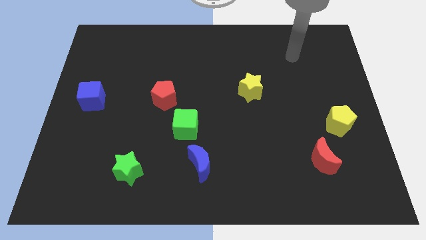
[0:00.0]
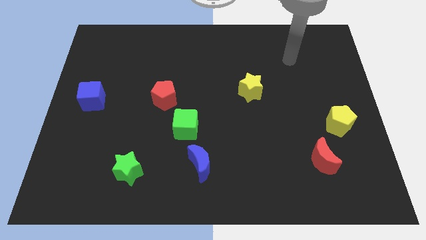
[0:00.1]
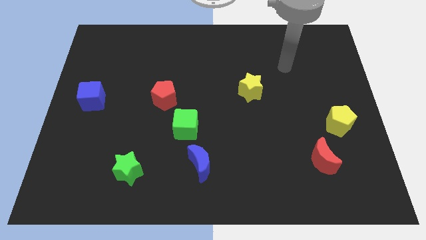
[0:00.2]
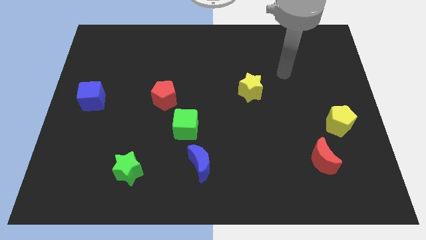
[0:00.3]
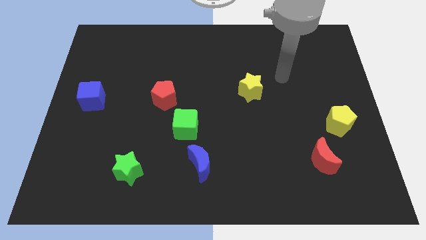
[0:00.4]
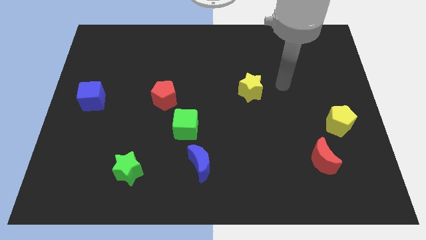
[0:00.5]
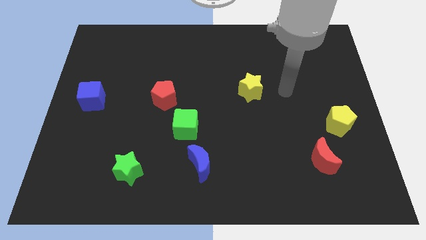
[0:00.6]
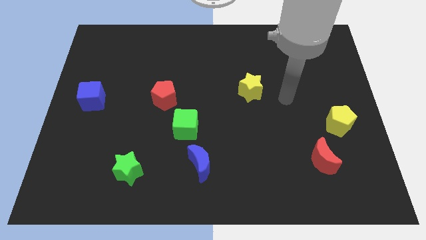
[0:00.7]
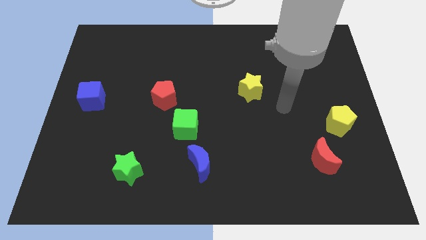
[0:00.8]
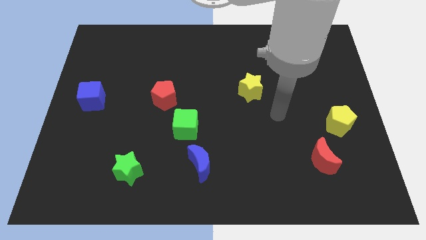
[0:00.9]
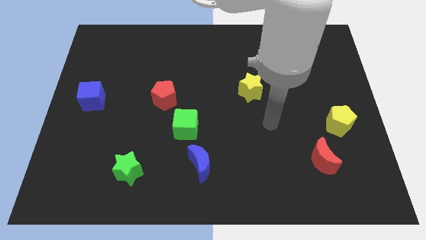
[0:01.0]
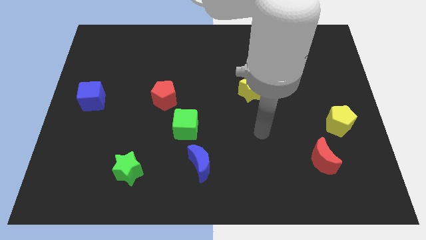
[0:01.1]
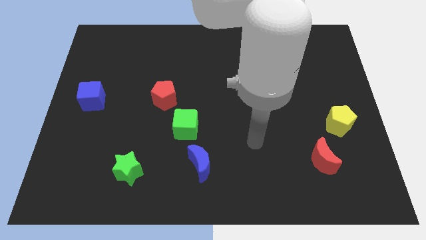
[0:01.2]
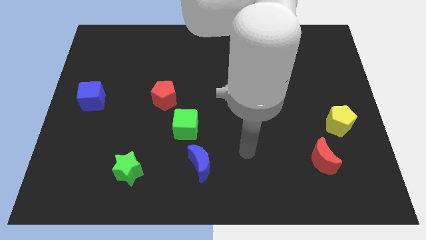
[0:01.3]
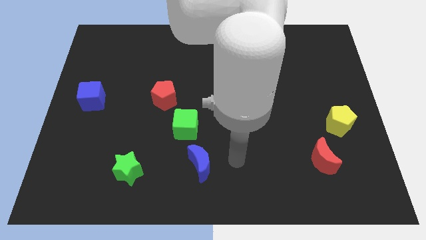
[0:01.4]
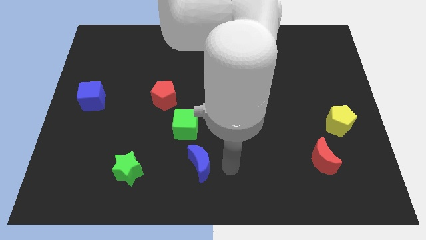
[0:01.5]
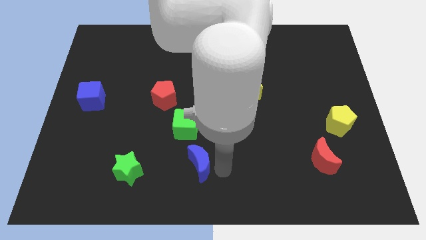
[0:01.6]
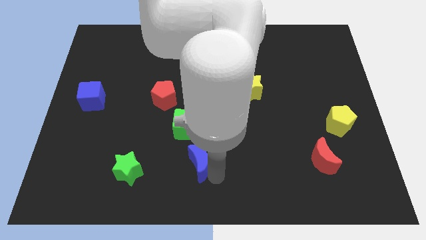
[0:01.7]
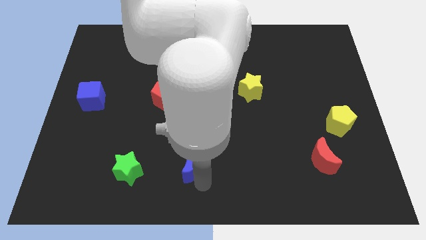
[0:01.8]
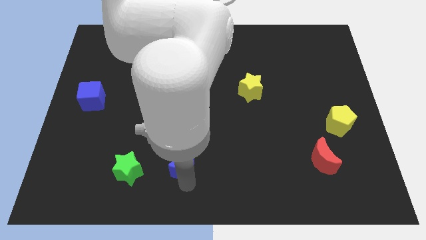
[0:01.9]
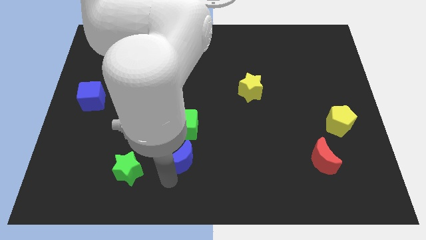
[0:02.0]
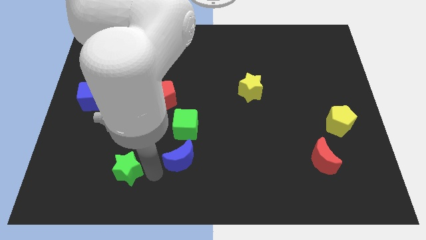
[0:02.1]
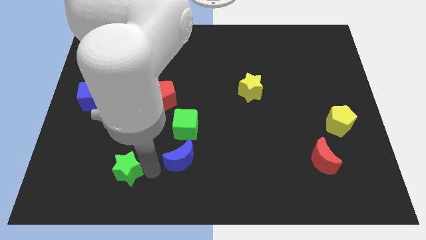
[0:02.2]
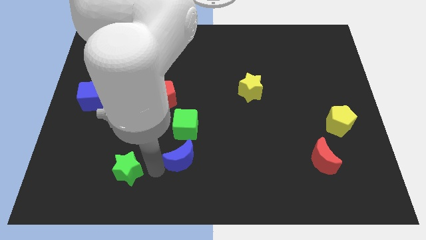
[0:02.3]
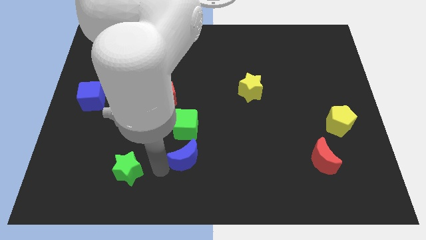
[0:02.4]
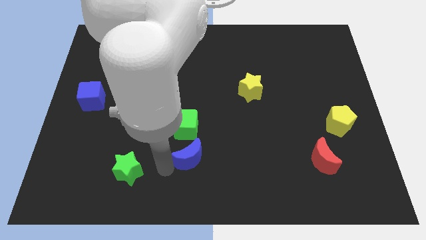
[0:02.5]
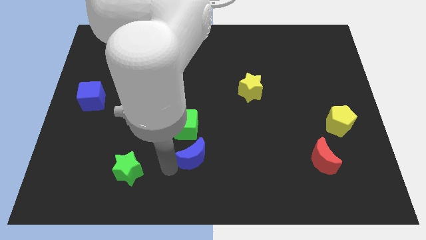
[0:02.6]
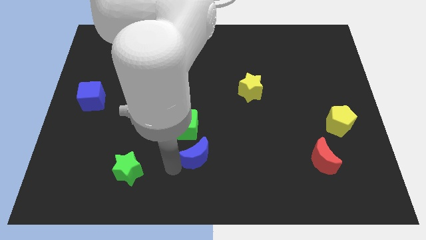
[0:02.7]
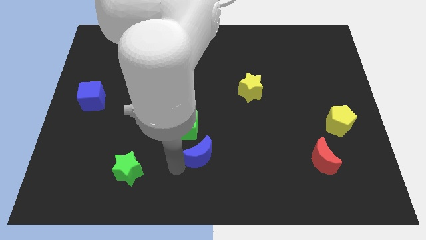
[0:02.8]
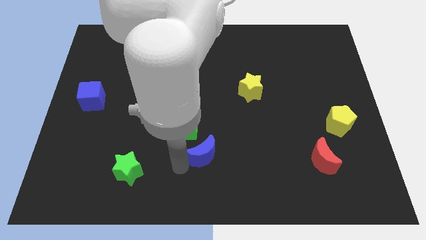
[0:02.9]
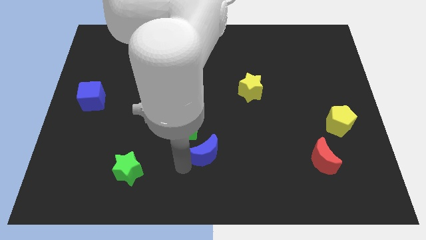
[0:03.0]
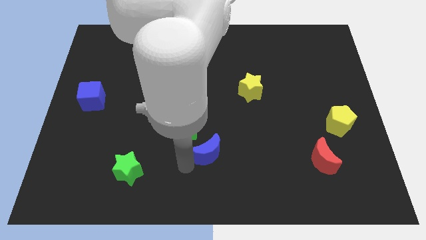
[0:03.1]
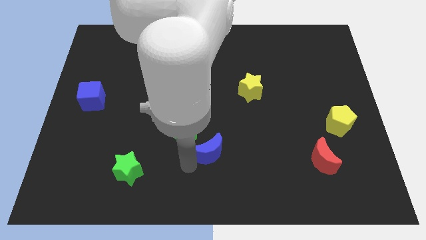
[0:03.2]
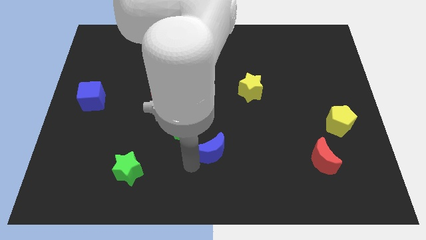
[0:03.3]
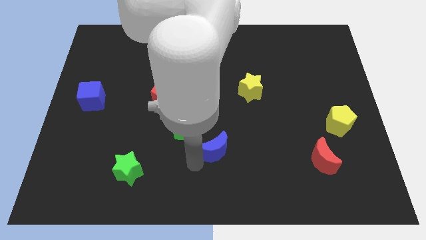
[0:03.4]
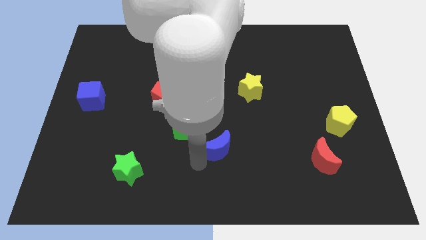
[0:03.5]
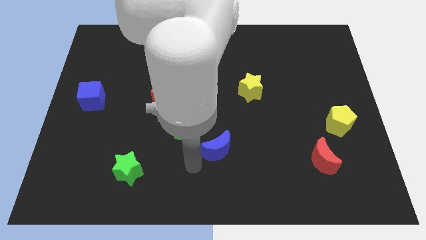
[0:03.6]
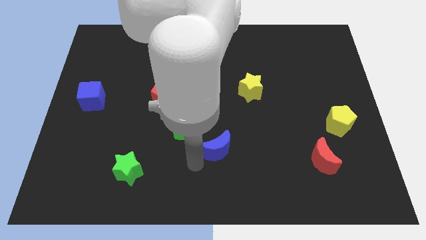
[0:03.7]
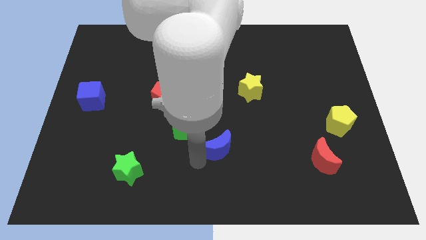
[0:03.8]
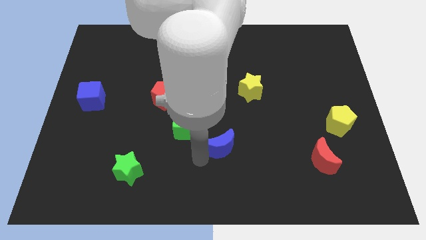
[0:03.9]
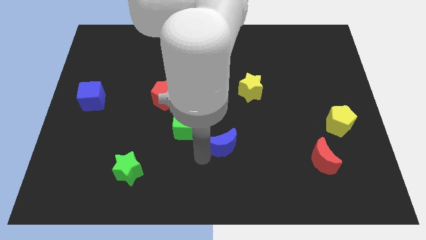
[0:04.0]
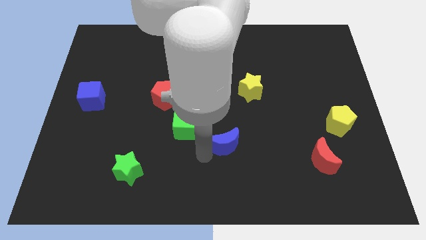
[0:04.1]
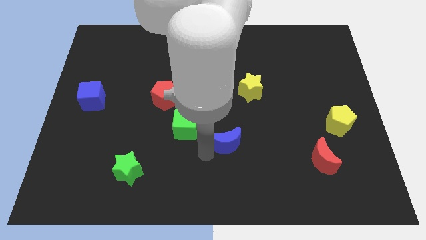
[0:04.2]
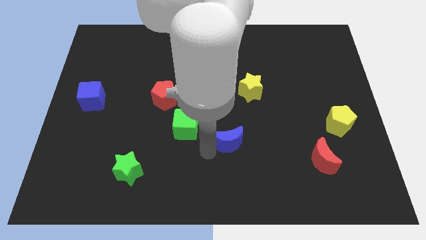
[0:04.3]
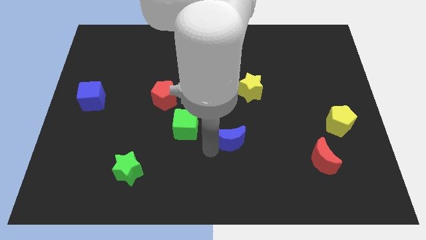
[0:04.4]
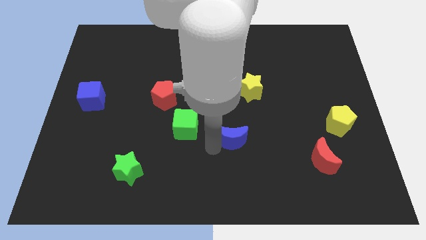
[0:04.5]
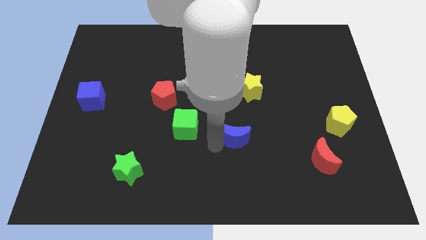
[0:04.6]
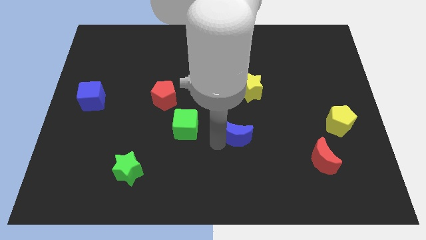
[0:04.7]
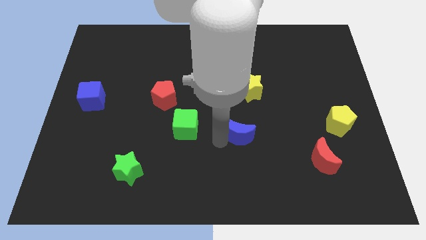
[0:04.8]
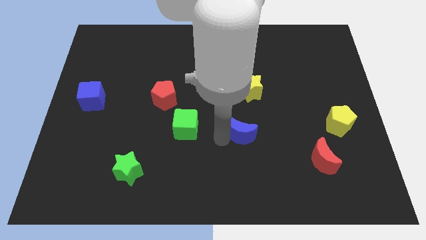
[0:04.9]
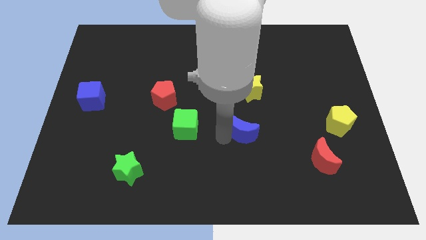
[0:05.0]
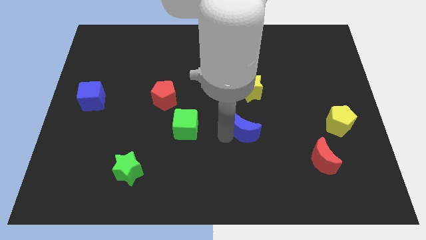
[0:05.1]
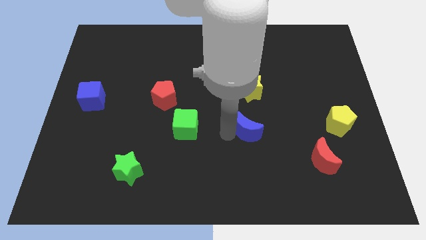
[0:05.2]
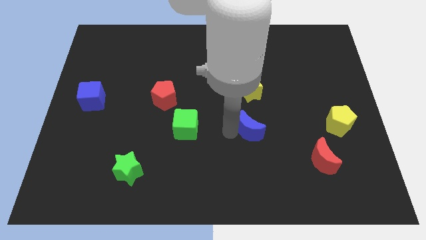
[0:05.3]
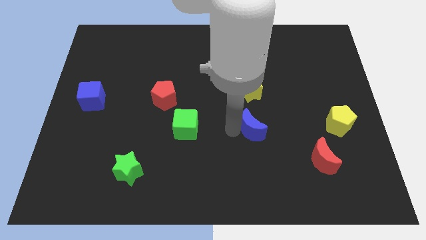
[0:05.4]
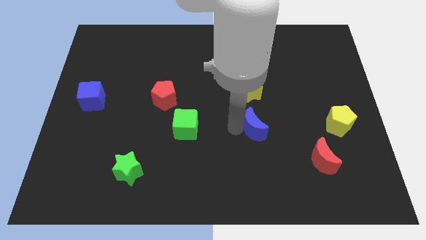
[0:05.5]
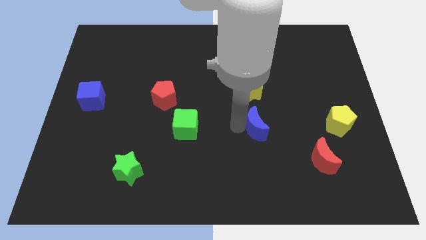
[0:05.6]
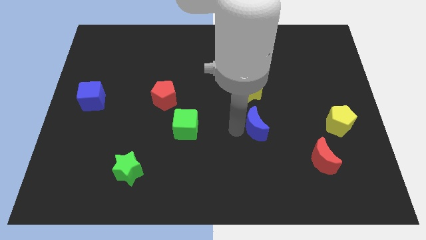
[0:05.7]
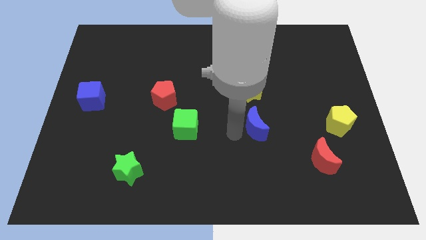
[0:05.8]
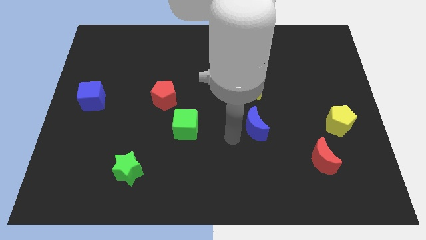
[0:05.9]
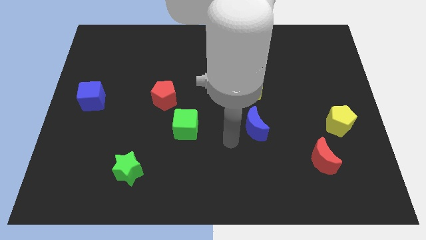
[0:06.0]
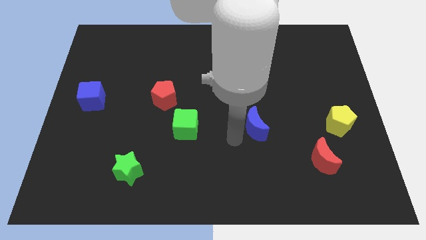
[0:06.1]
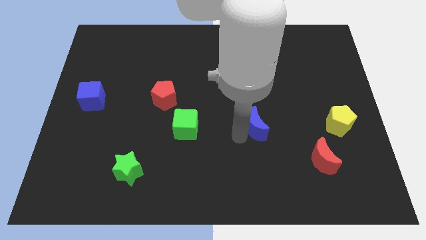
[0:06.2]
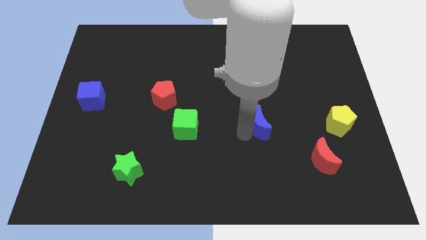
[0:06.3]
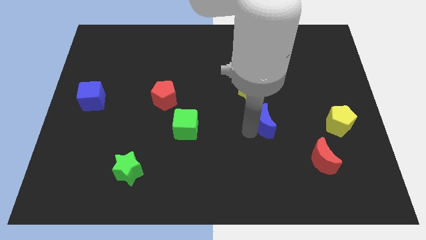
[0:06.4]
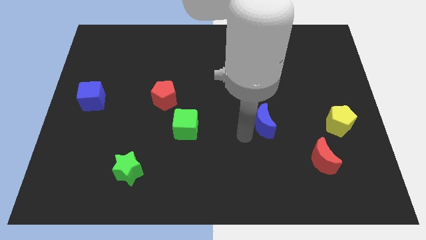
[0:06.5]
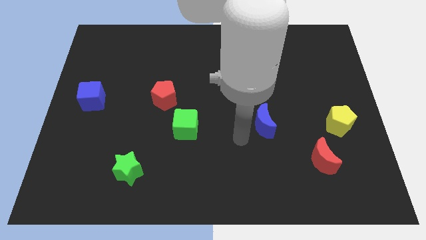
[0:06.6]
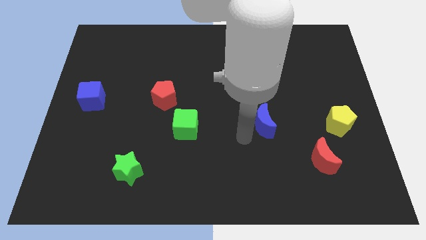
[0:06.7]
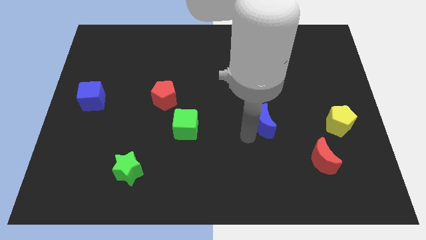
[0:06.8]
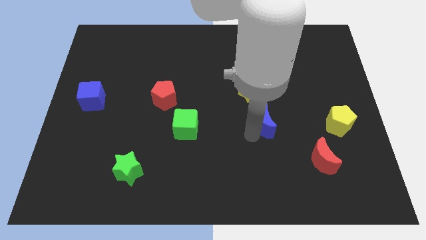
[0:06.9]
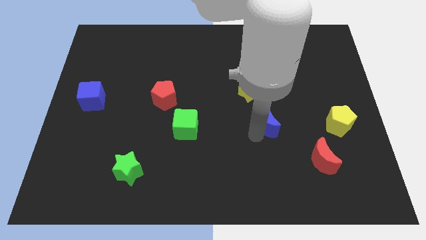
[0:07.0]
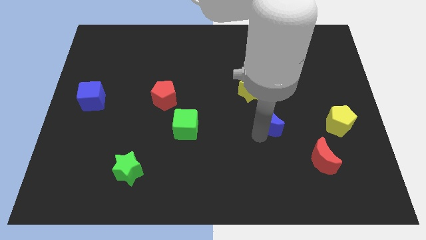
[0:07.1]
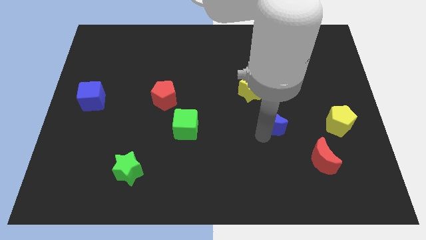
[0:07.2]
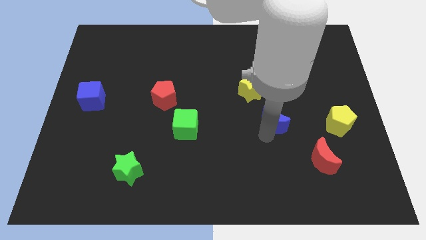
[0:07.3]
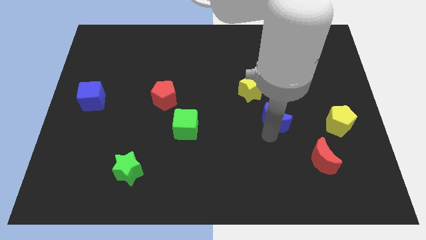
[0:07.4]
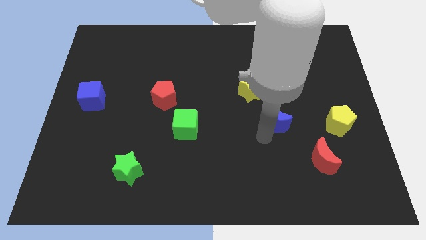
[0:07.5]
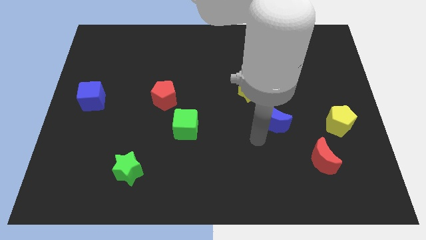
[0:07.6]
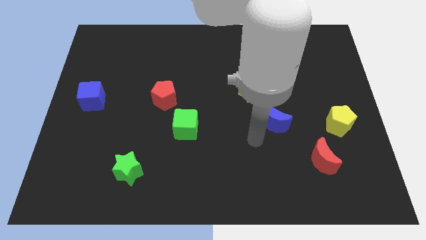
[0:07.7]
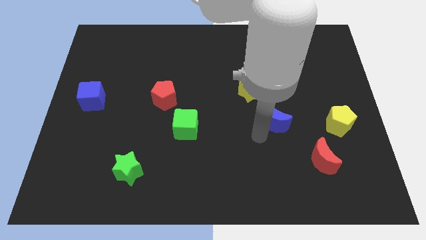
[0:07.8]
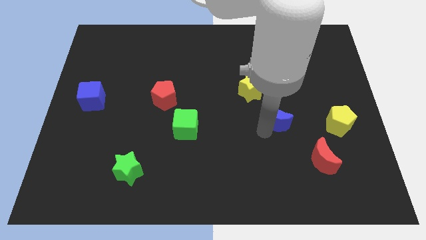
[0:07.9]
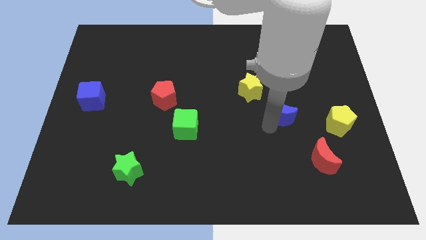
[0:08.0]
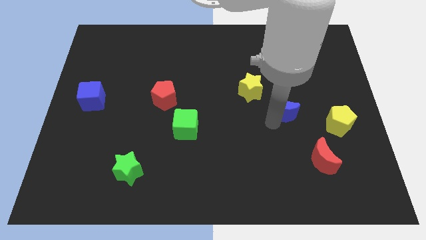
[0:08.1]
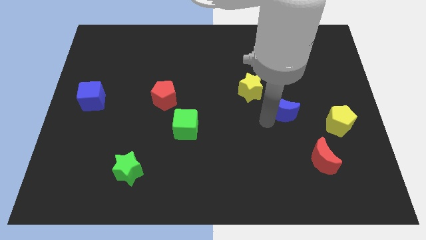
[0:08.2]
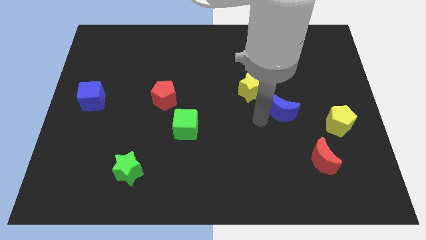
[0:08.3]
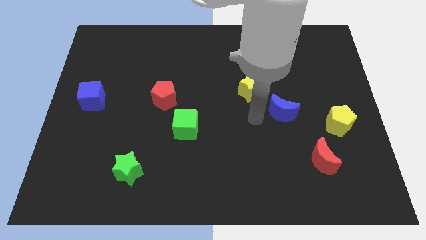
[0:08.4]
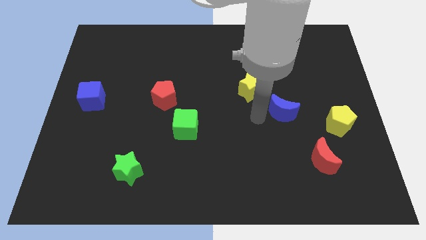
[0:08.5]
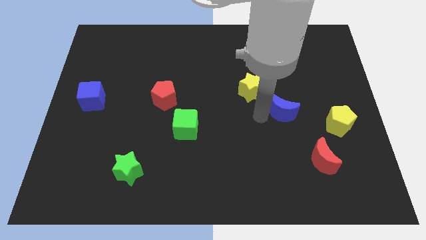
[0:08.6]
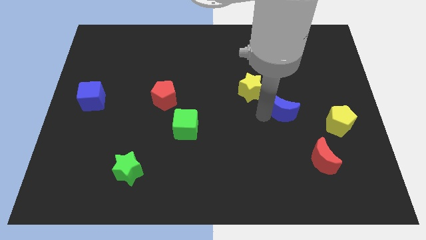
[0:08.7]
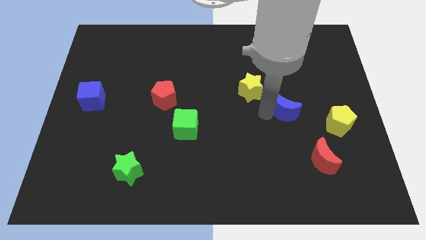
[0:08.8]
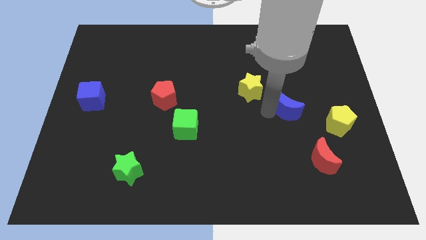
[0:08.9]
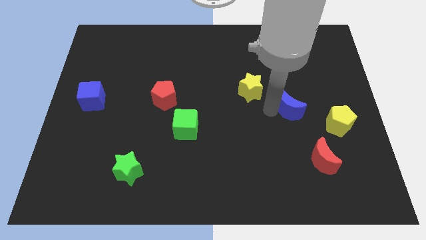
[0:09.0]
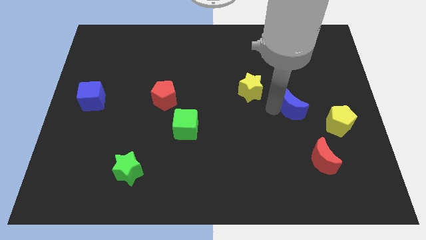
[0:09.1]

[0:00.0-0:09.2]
slide the blue moon to the top left side of the yellow pentagon
